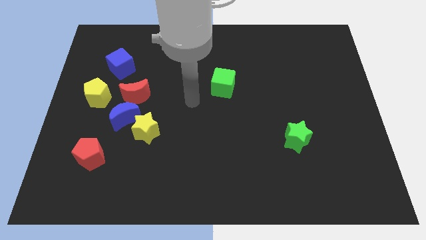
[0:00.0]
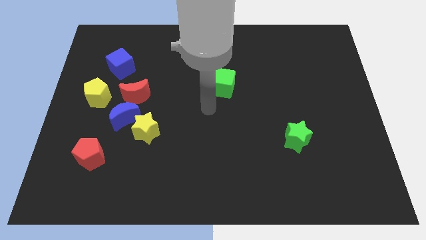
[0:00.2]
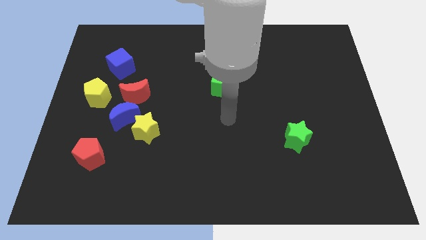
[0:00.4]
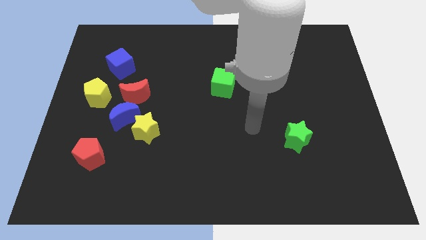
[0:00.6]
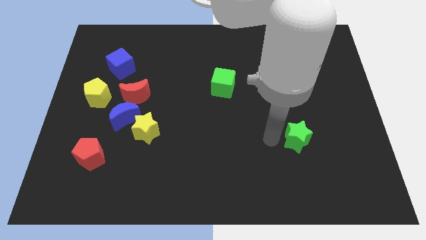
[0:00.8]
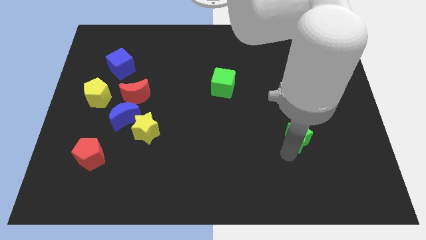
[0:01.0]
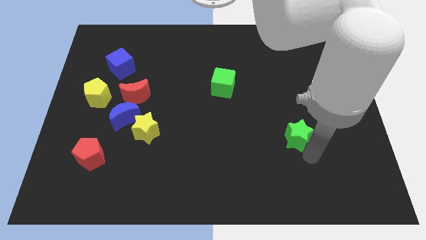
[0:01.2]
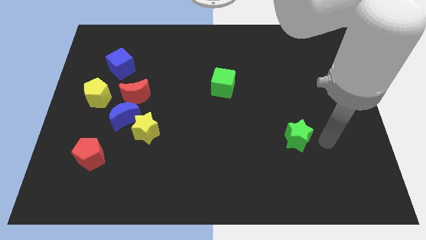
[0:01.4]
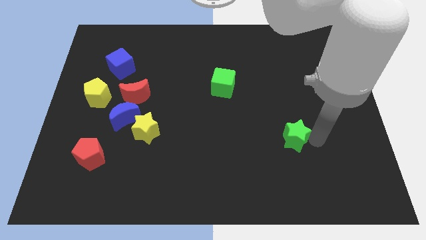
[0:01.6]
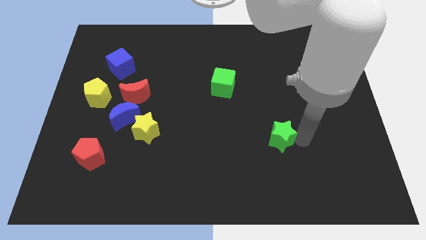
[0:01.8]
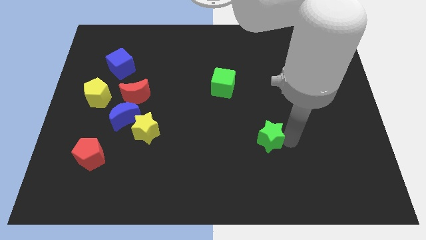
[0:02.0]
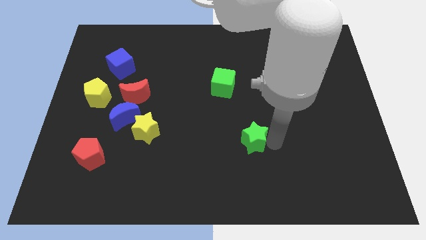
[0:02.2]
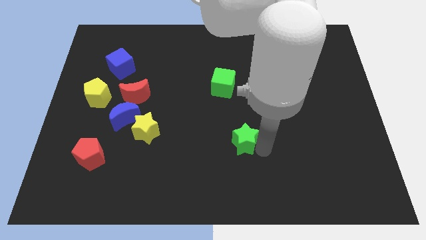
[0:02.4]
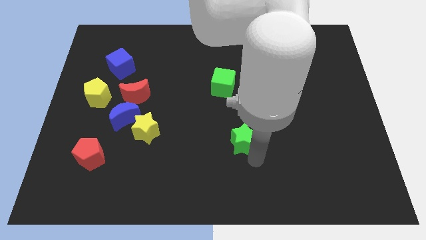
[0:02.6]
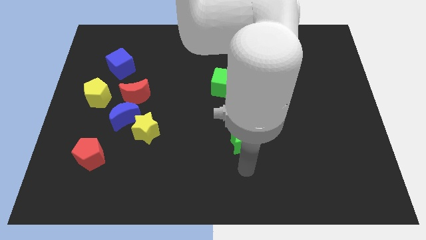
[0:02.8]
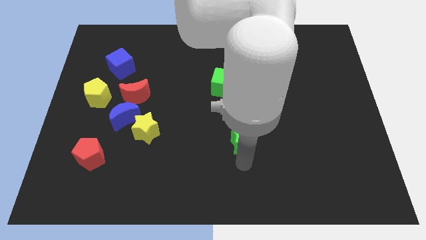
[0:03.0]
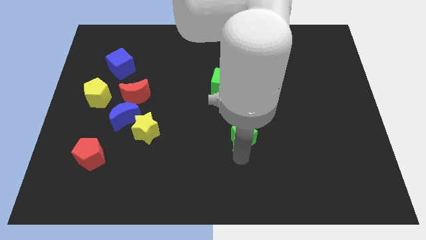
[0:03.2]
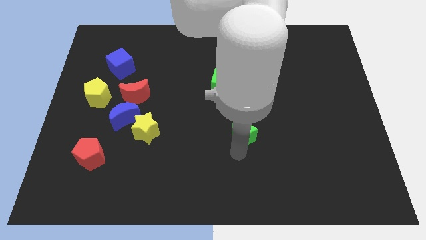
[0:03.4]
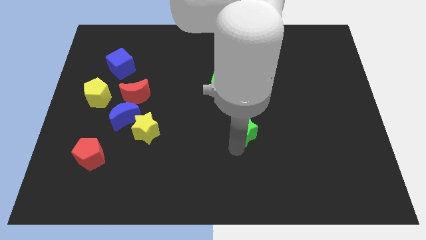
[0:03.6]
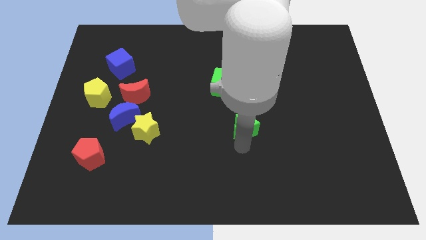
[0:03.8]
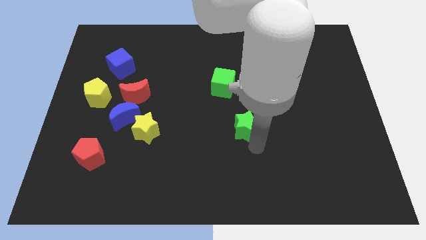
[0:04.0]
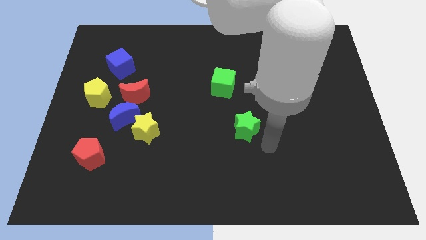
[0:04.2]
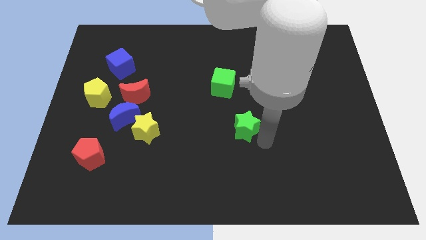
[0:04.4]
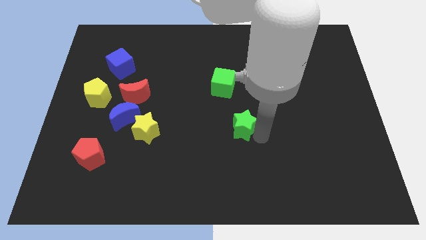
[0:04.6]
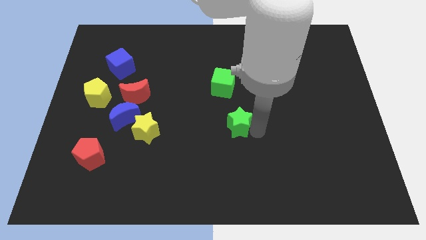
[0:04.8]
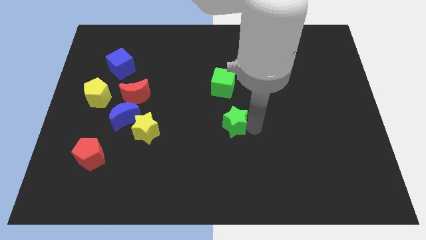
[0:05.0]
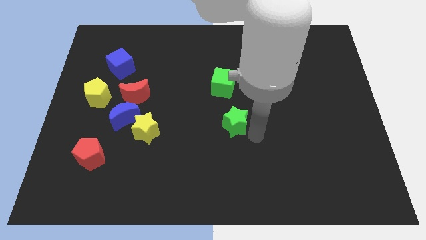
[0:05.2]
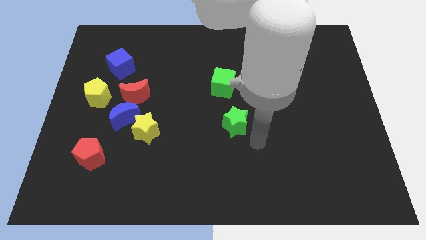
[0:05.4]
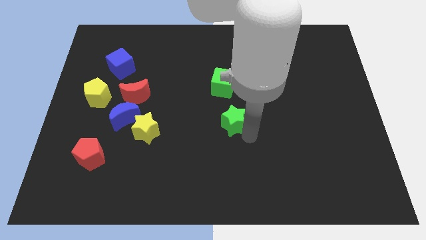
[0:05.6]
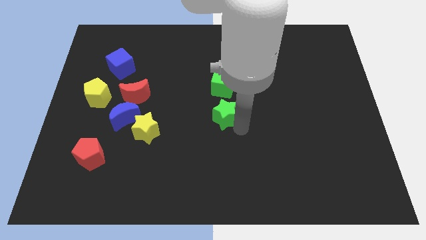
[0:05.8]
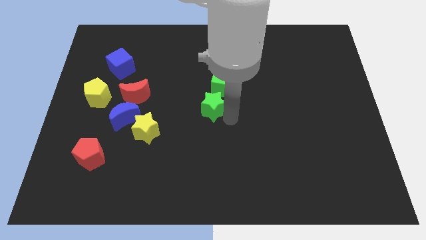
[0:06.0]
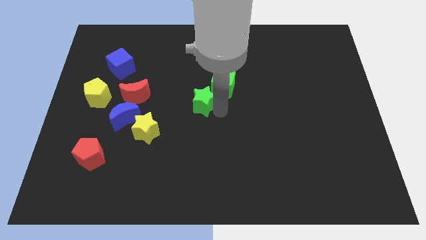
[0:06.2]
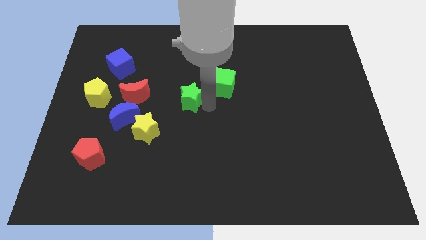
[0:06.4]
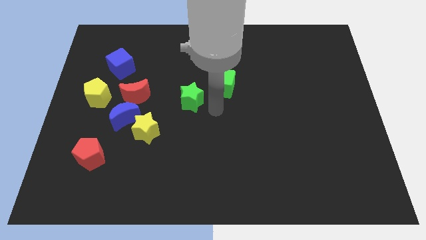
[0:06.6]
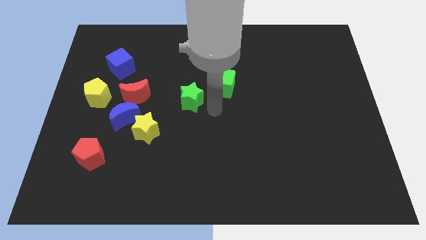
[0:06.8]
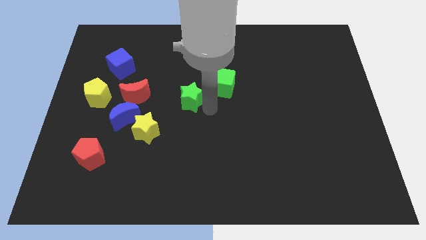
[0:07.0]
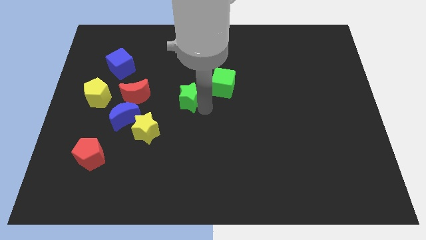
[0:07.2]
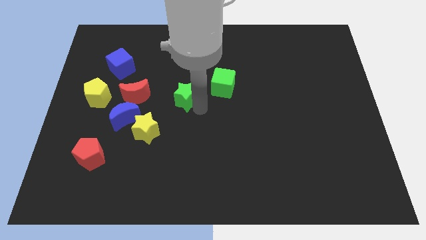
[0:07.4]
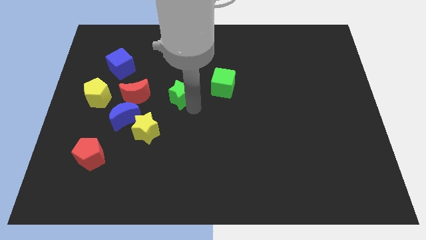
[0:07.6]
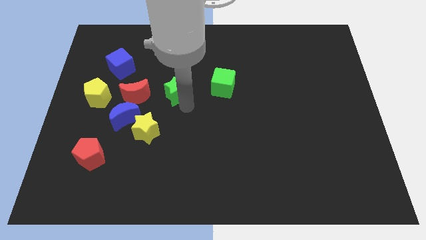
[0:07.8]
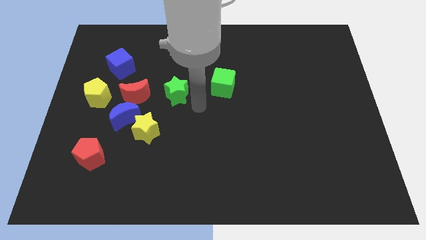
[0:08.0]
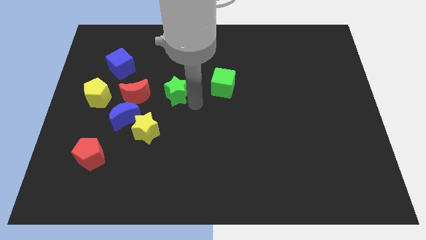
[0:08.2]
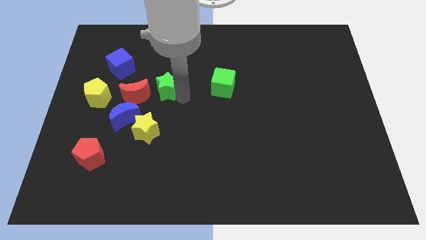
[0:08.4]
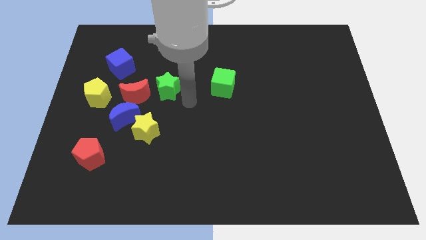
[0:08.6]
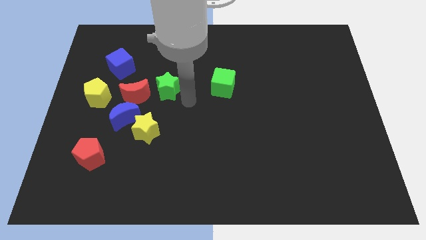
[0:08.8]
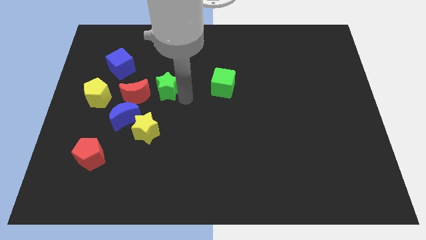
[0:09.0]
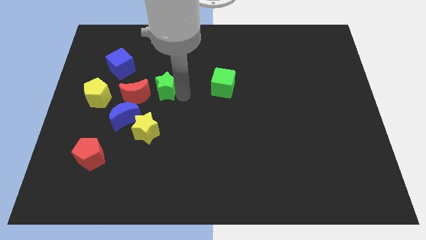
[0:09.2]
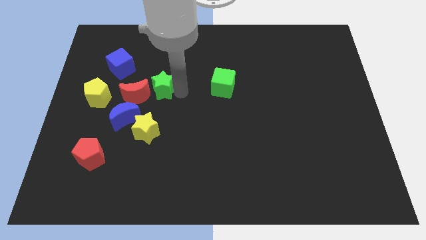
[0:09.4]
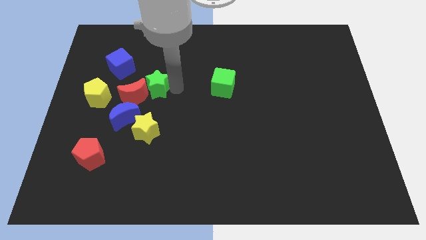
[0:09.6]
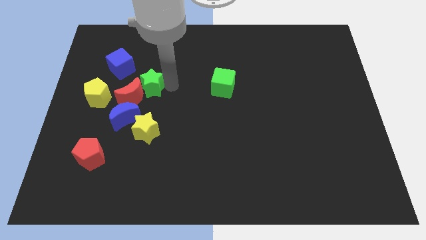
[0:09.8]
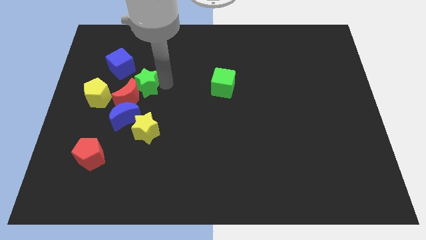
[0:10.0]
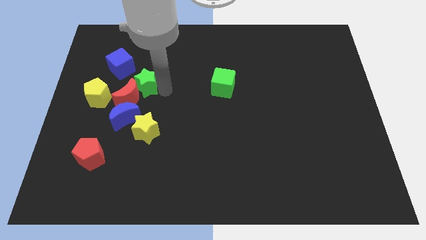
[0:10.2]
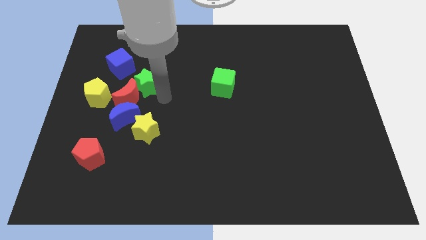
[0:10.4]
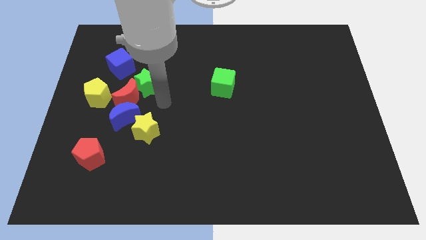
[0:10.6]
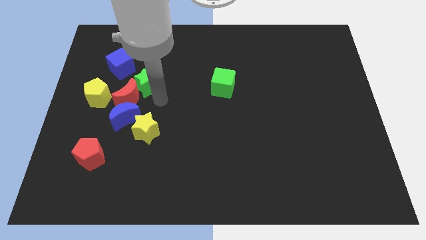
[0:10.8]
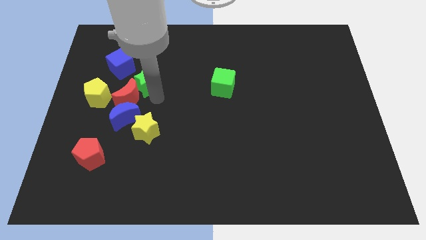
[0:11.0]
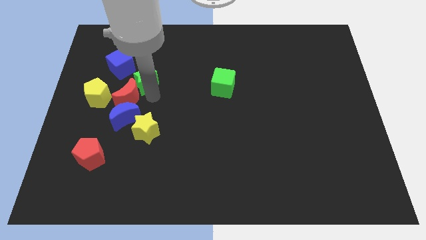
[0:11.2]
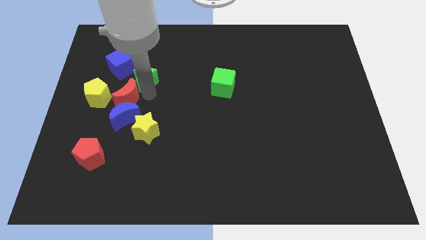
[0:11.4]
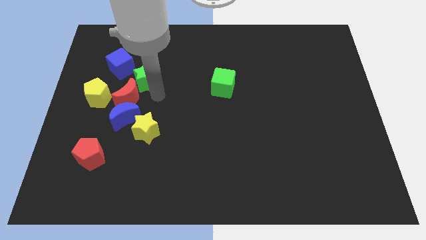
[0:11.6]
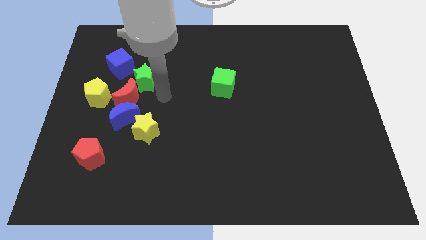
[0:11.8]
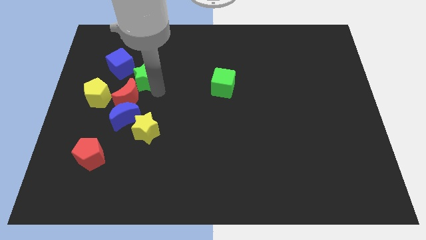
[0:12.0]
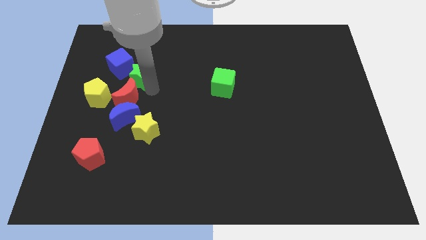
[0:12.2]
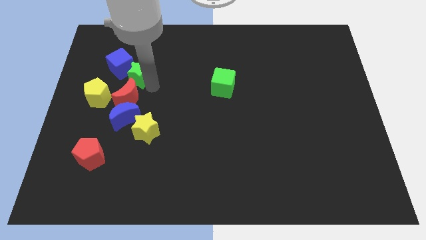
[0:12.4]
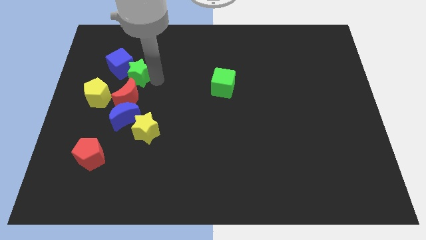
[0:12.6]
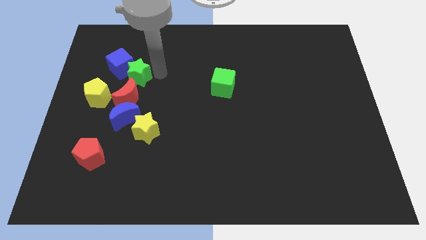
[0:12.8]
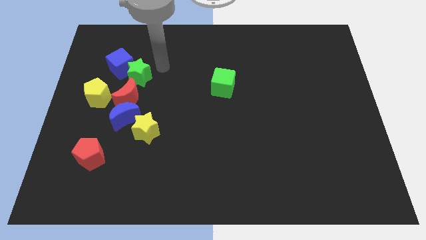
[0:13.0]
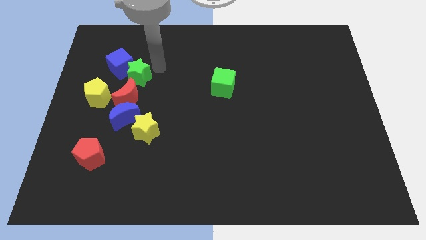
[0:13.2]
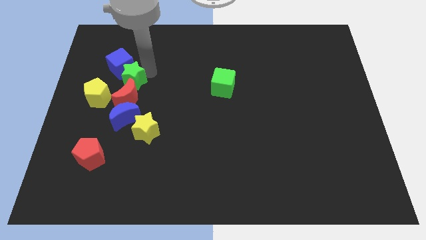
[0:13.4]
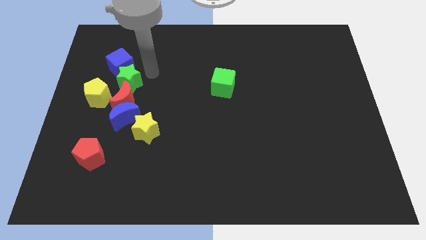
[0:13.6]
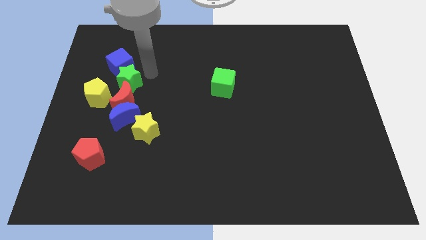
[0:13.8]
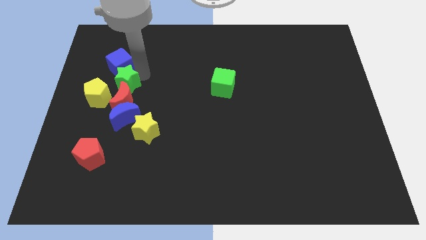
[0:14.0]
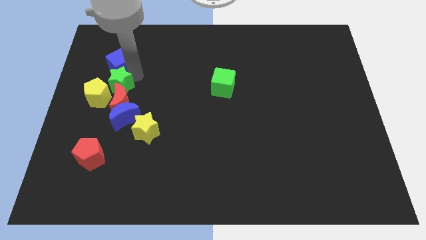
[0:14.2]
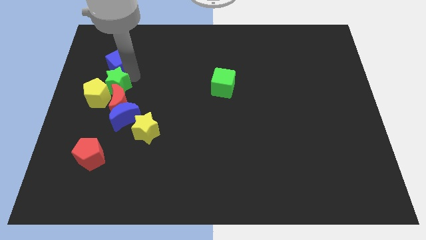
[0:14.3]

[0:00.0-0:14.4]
move the green star next to the yellow pentagon

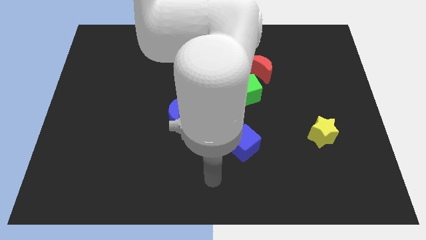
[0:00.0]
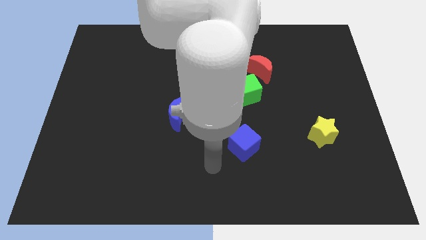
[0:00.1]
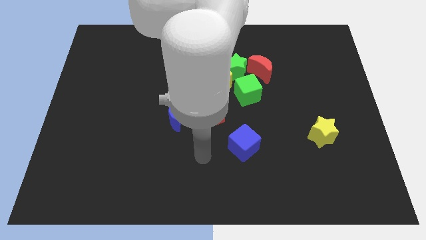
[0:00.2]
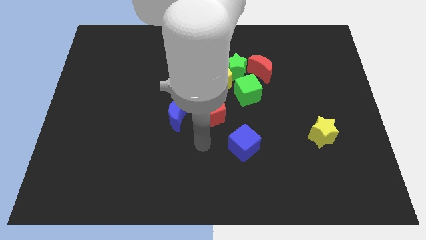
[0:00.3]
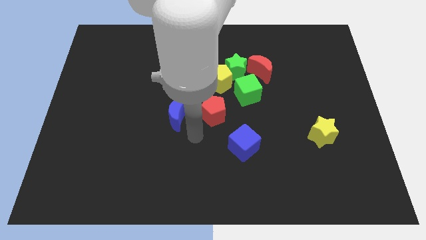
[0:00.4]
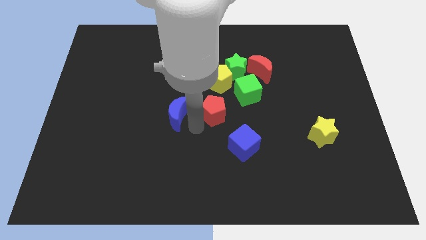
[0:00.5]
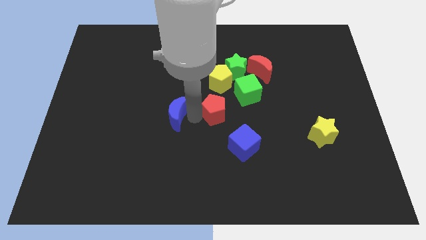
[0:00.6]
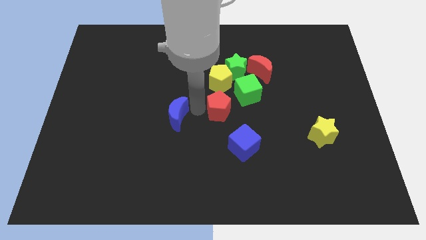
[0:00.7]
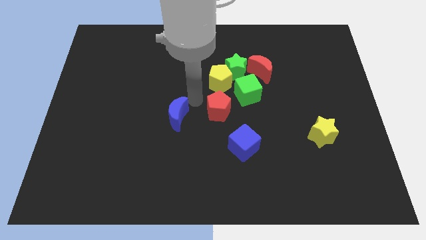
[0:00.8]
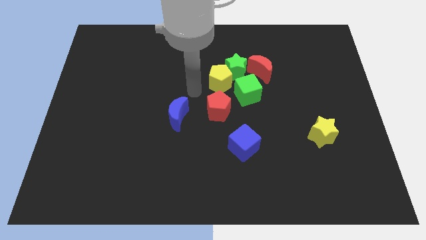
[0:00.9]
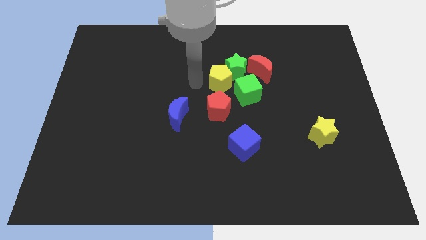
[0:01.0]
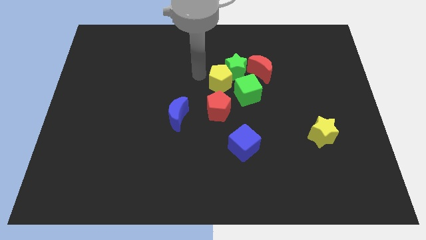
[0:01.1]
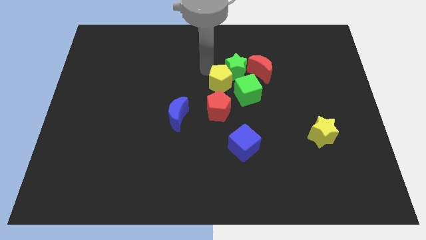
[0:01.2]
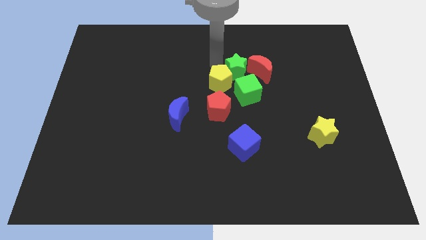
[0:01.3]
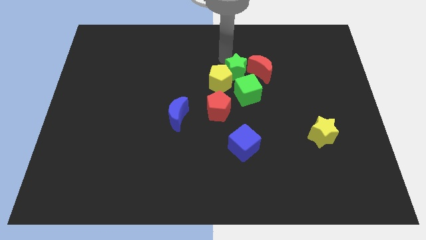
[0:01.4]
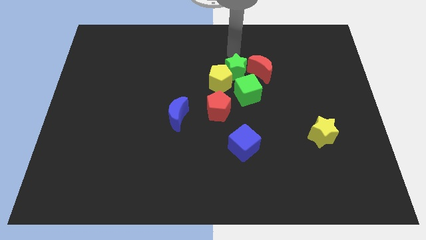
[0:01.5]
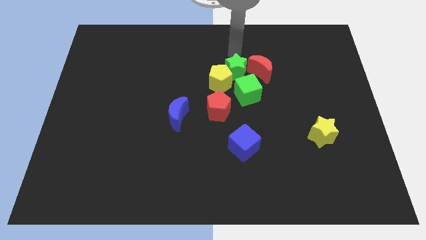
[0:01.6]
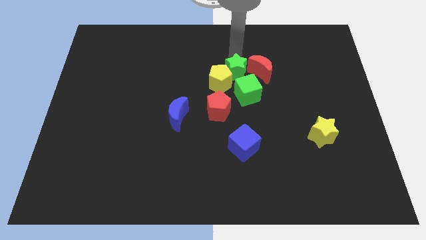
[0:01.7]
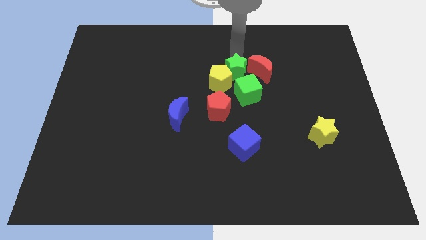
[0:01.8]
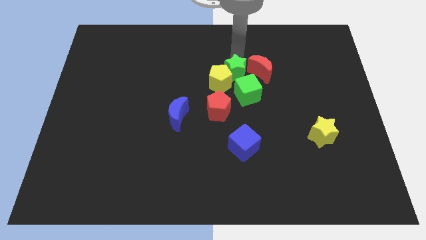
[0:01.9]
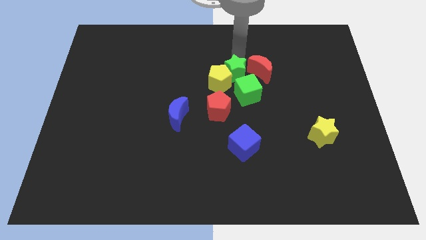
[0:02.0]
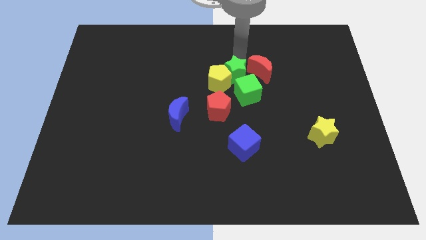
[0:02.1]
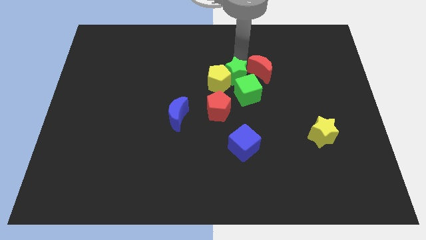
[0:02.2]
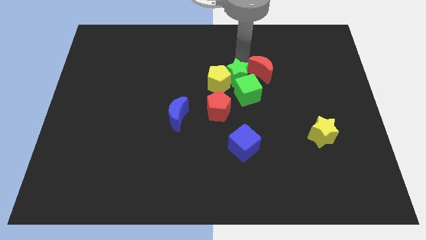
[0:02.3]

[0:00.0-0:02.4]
push the green star towards the green cube
